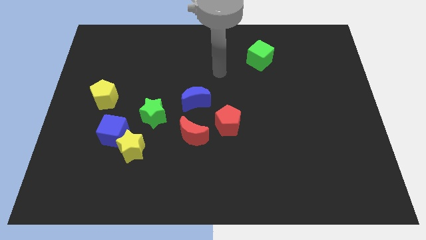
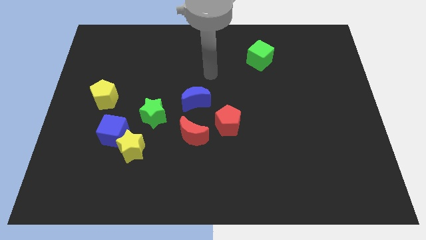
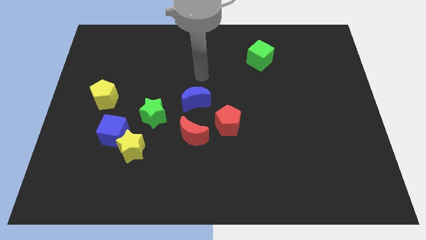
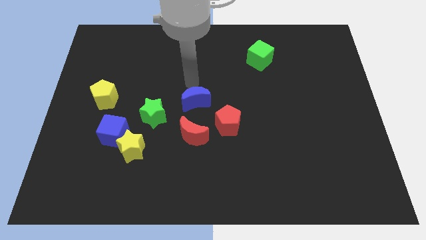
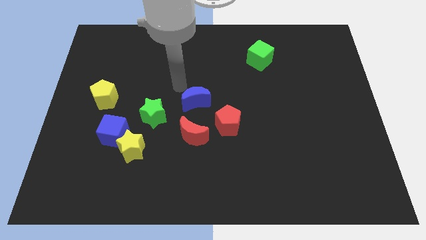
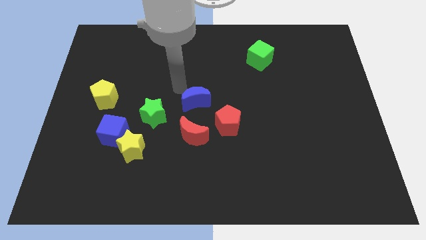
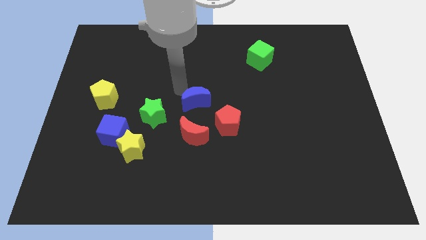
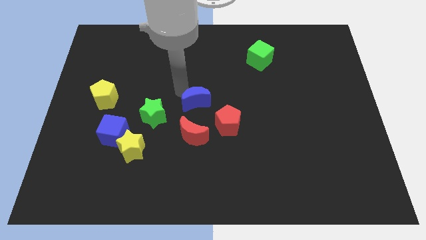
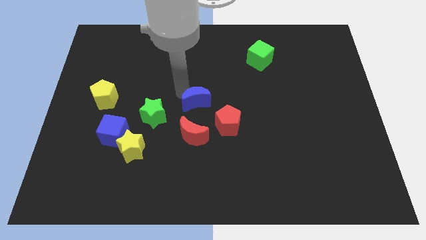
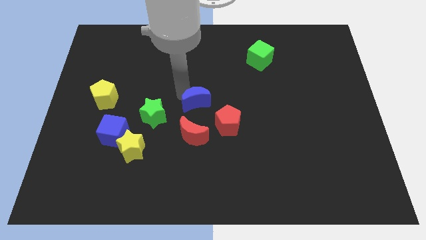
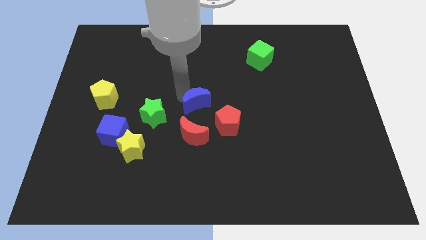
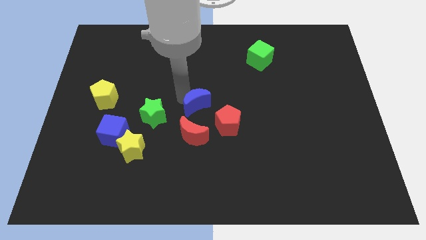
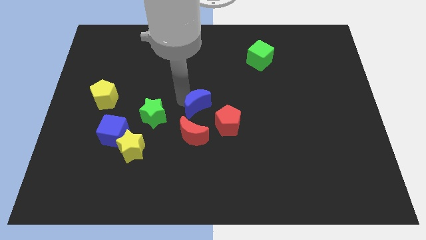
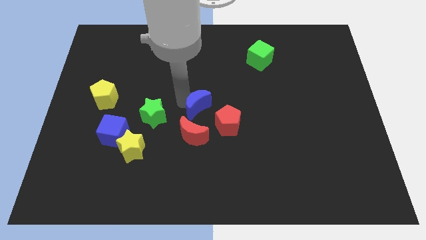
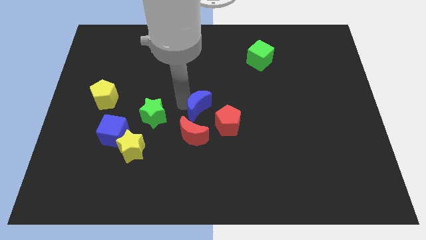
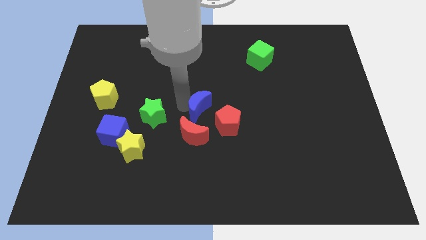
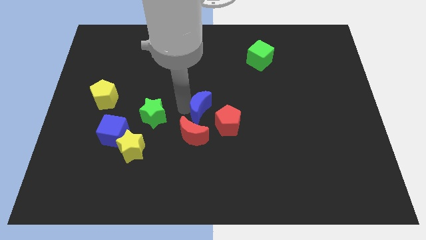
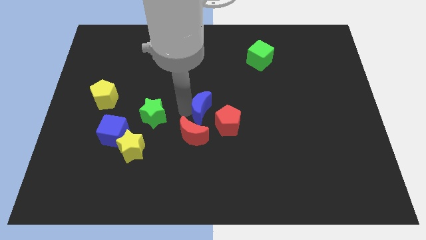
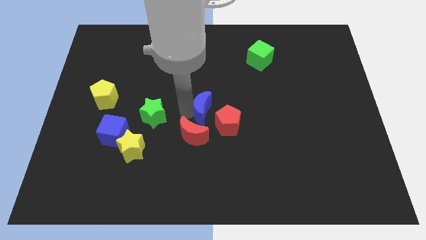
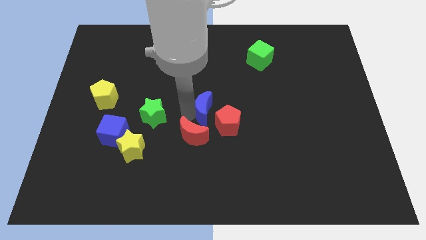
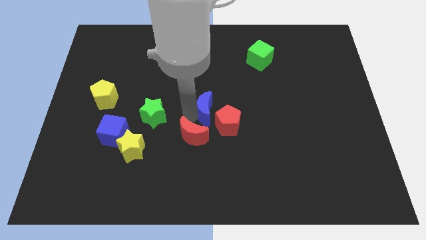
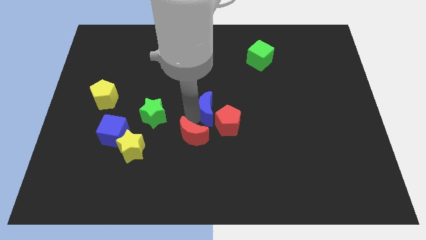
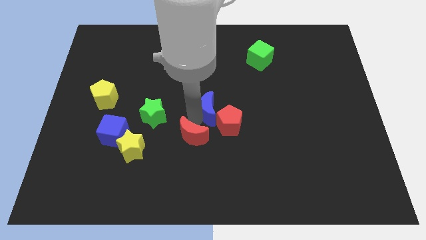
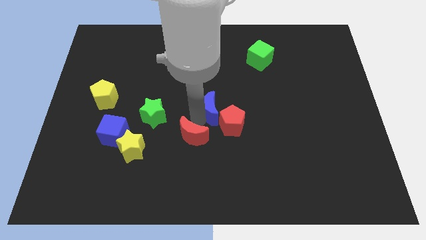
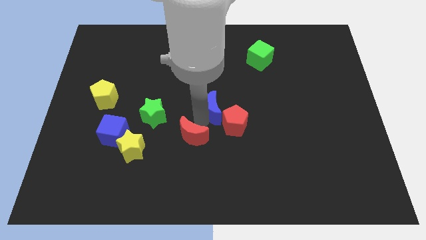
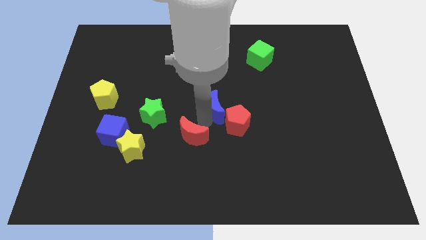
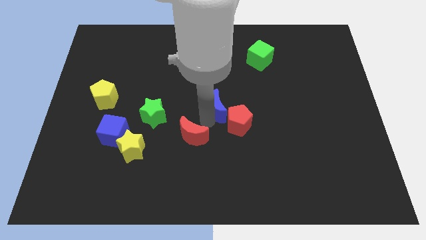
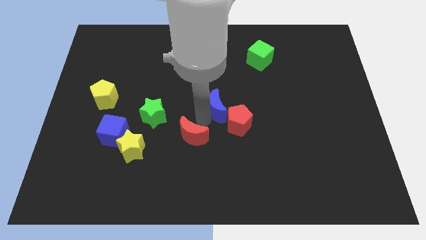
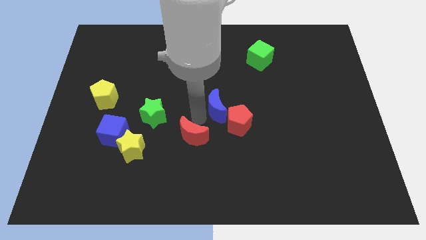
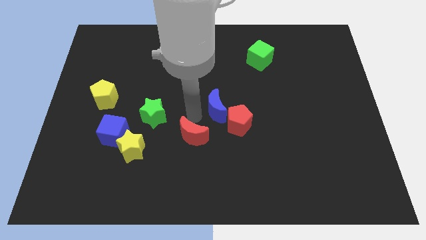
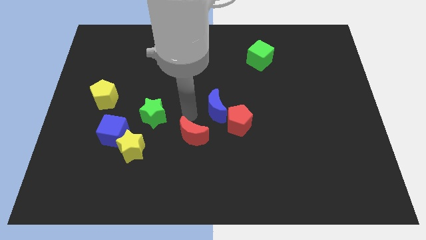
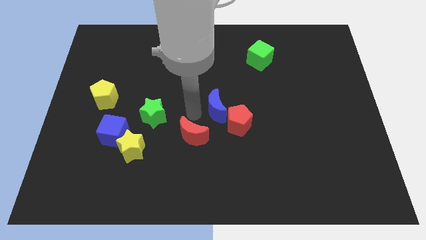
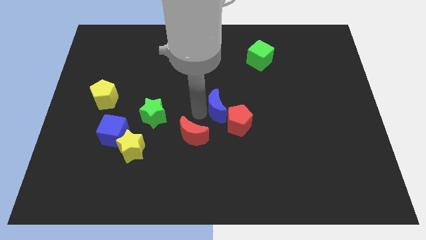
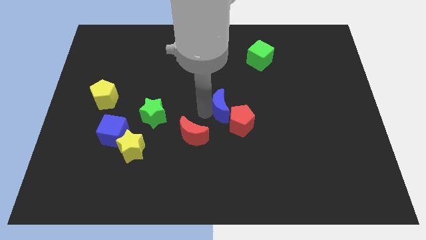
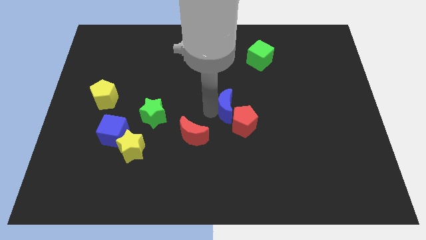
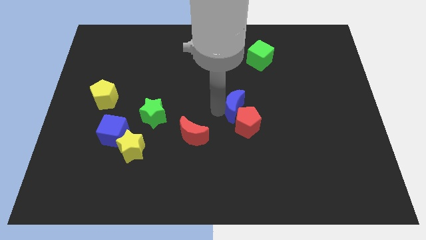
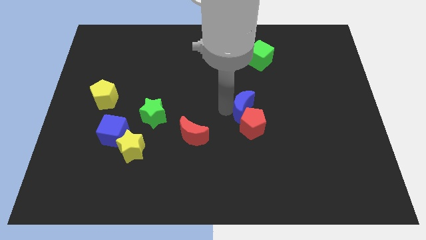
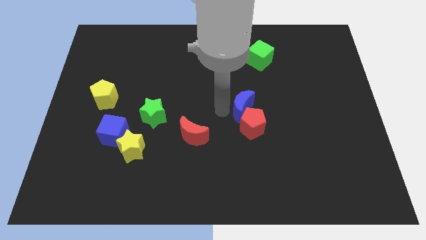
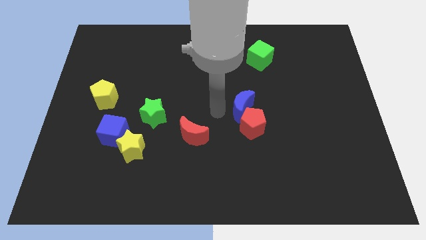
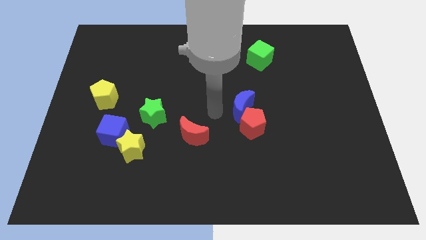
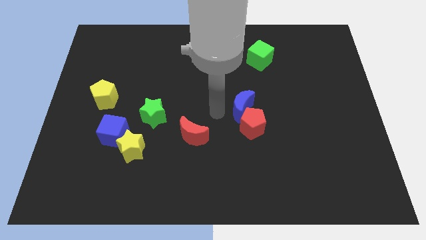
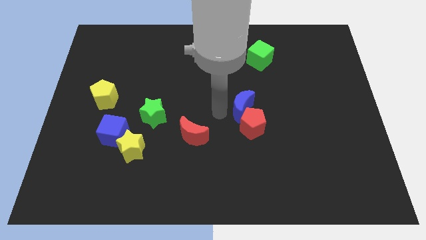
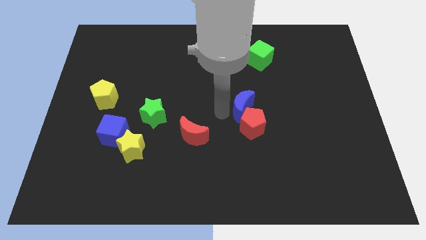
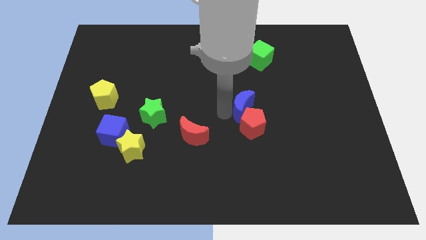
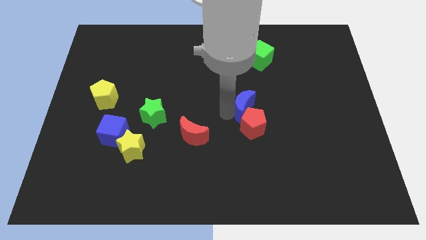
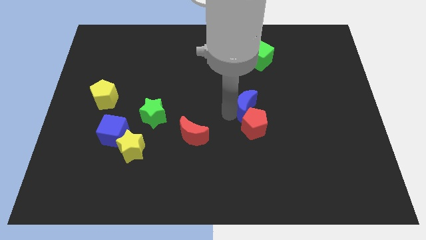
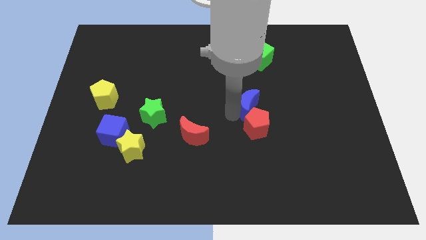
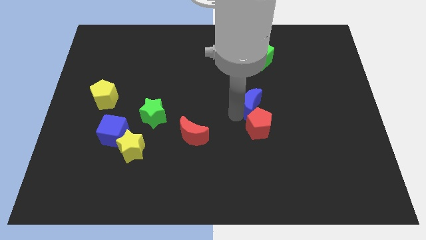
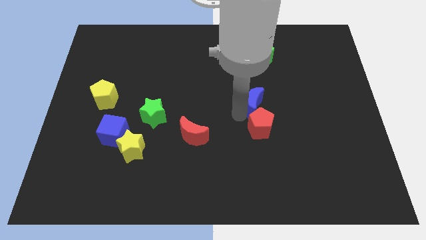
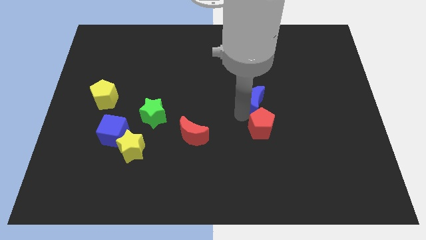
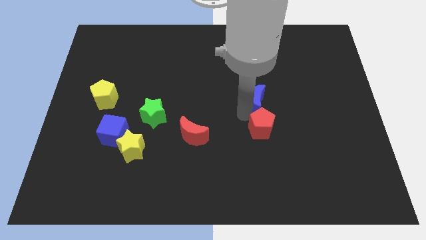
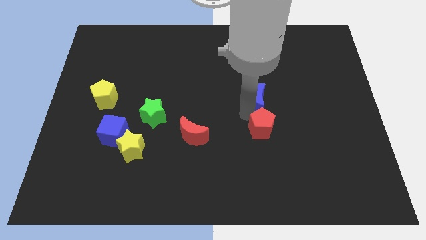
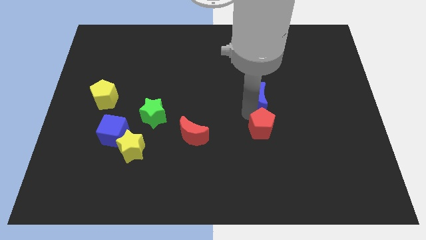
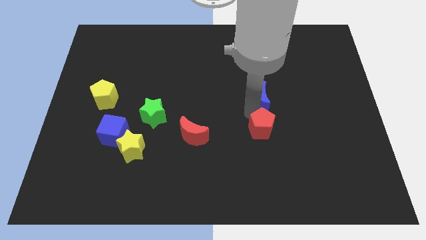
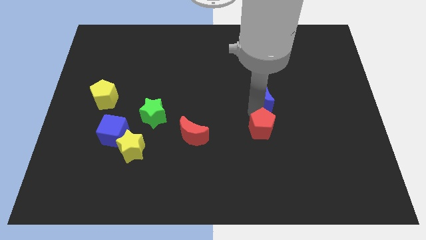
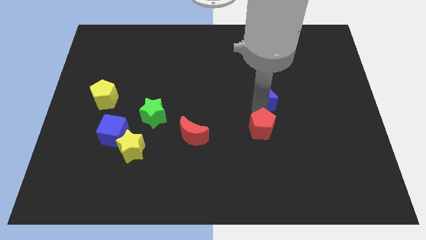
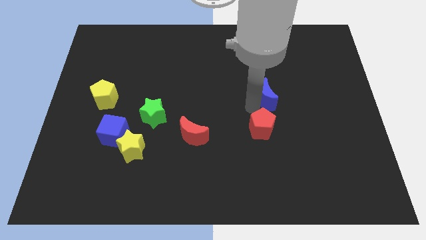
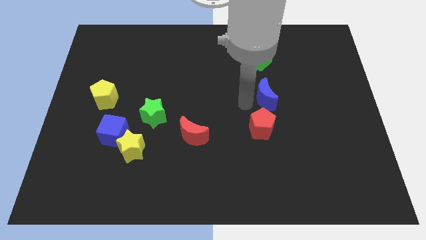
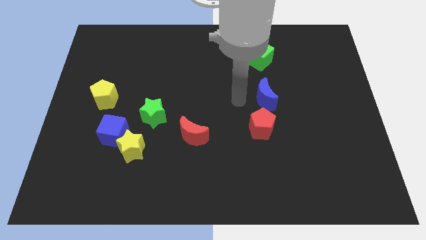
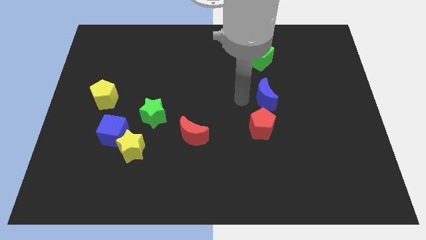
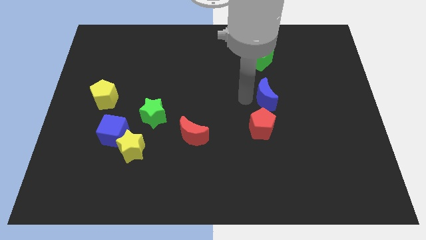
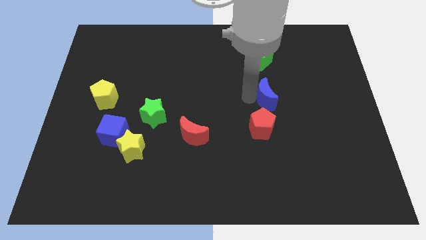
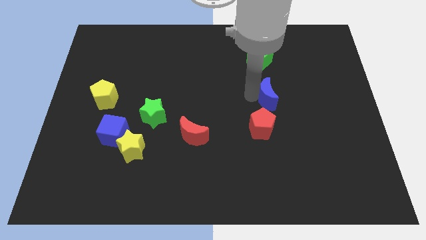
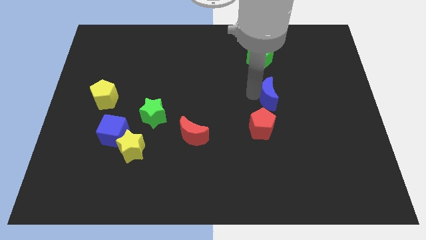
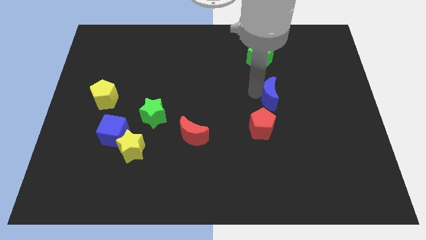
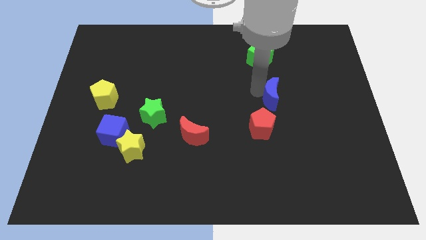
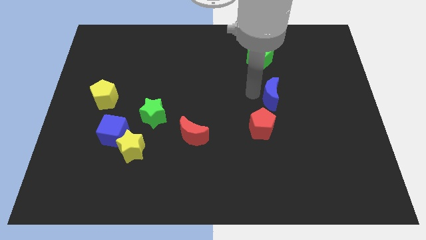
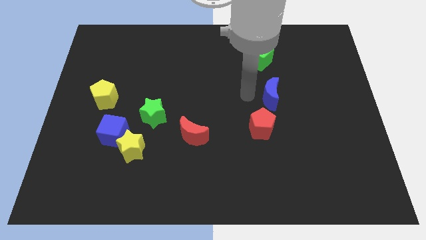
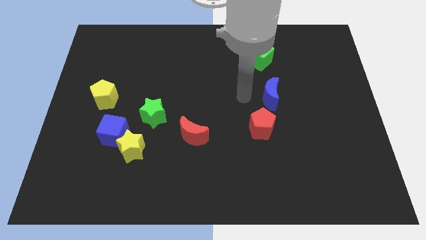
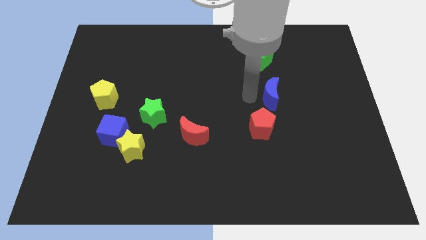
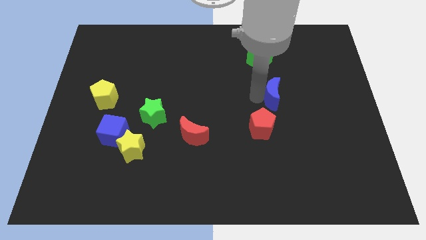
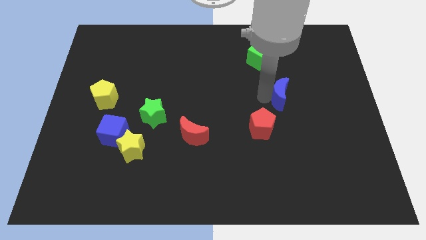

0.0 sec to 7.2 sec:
slide the blue moon right

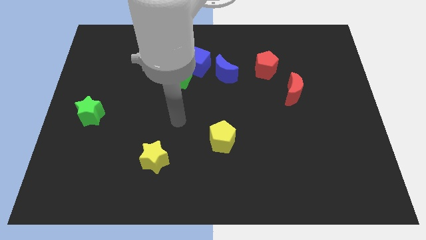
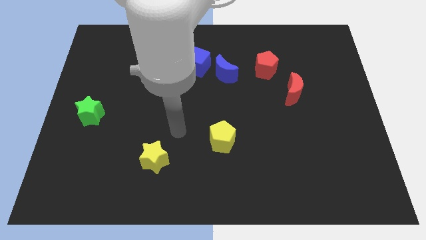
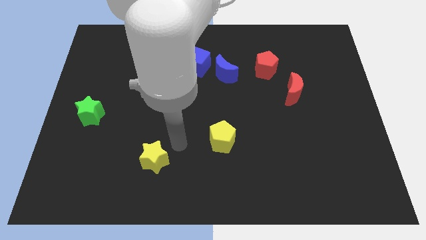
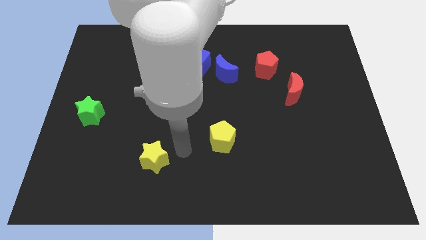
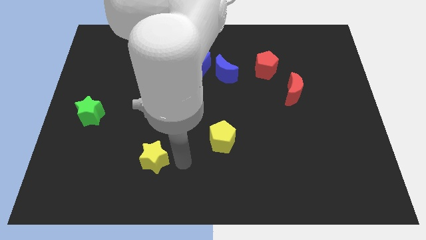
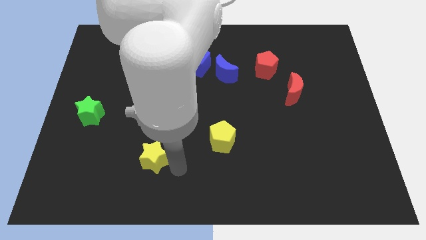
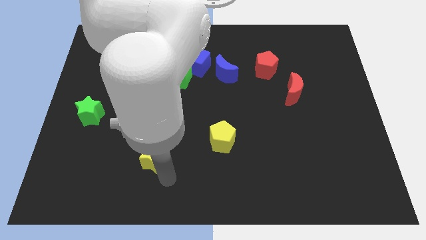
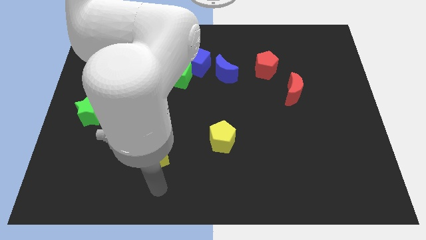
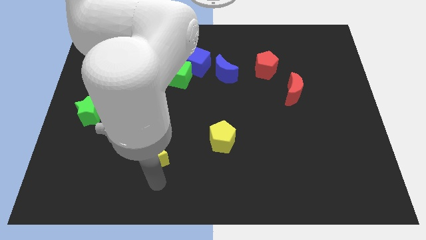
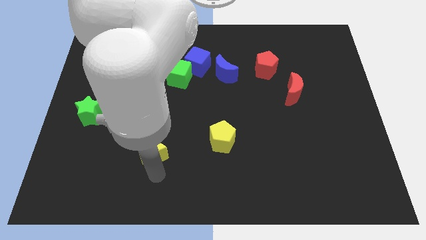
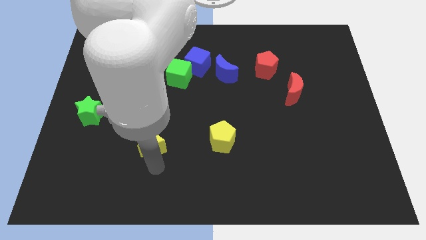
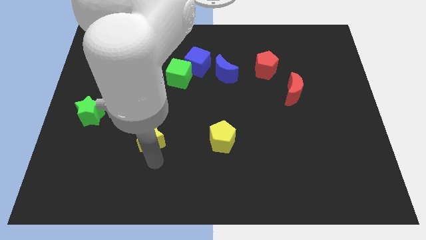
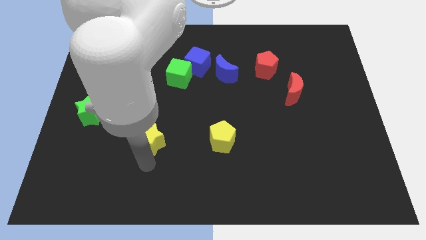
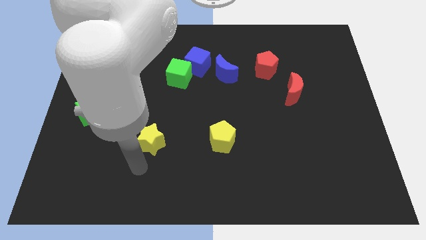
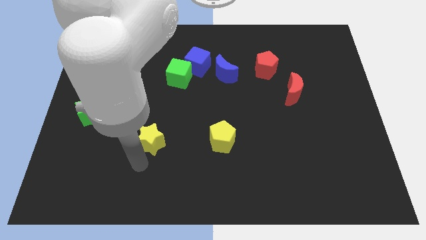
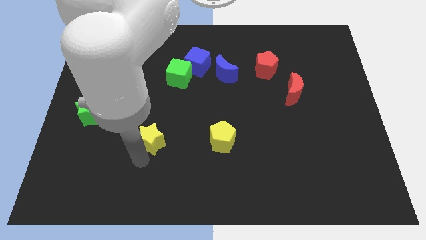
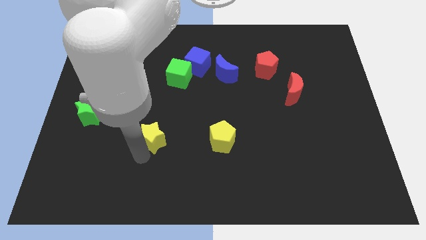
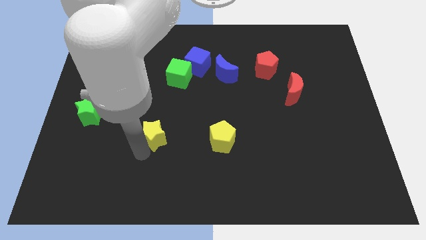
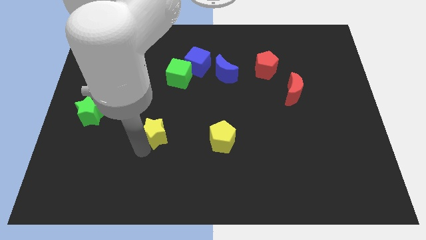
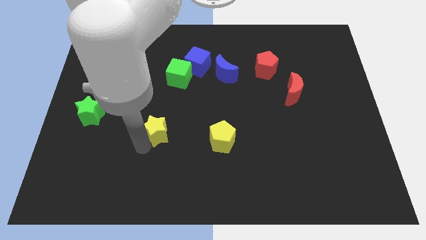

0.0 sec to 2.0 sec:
slightly slide the yellow star up
